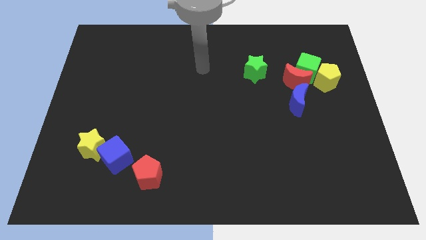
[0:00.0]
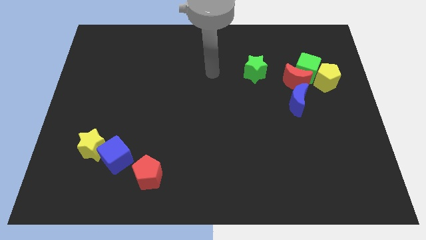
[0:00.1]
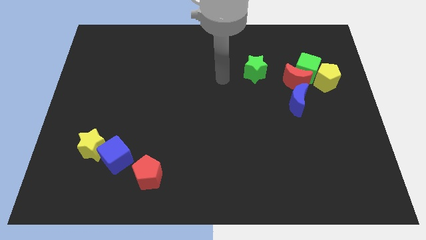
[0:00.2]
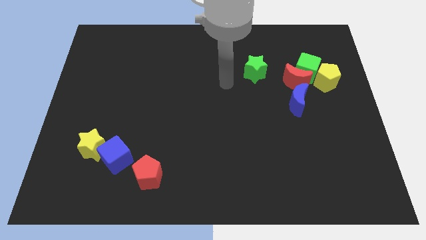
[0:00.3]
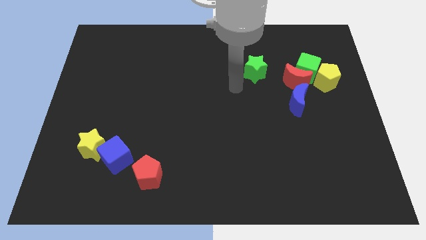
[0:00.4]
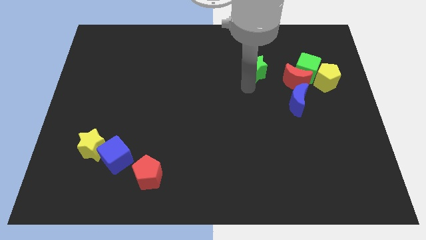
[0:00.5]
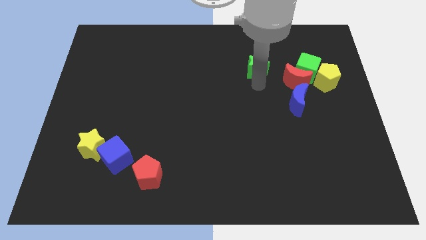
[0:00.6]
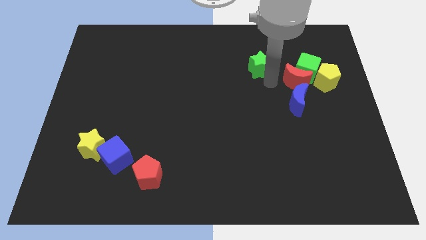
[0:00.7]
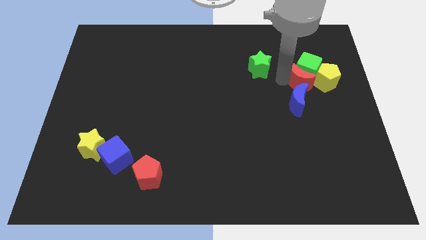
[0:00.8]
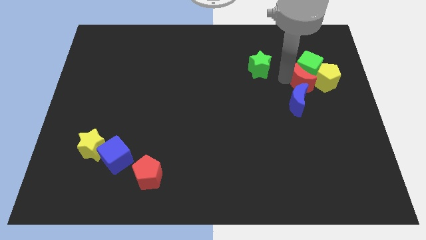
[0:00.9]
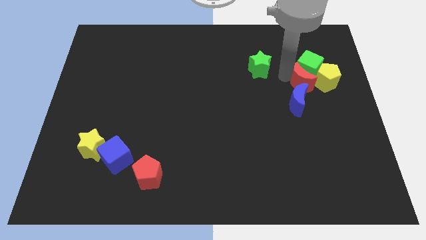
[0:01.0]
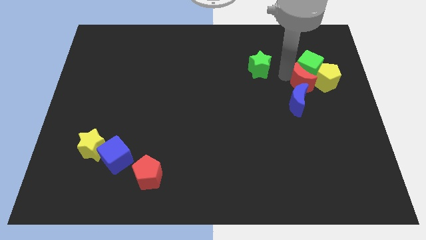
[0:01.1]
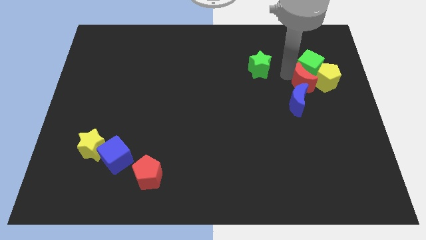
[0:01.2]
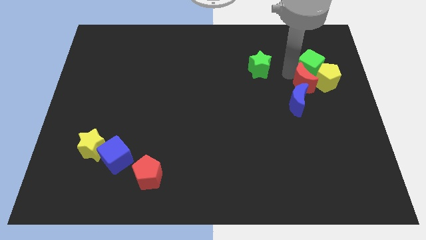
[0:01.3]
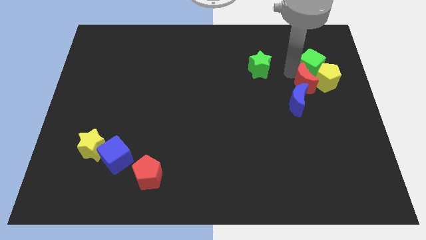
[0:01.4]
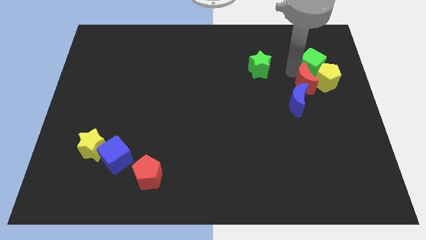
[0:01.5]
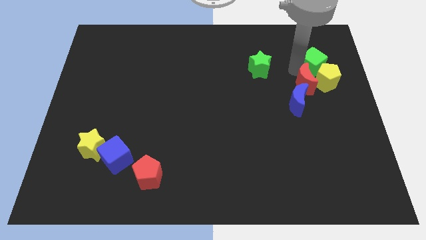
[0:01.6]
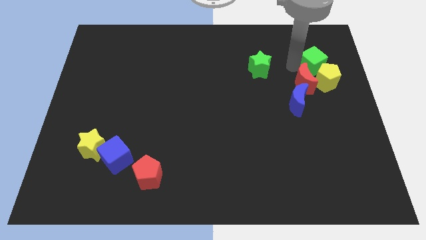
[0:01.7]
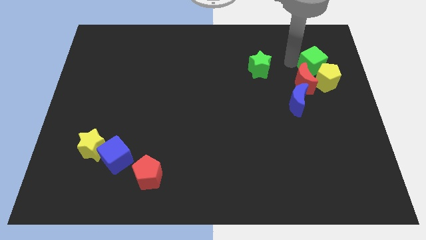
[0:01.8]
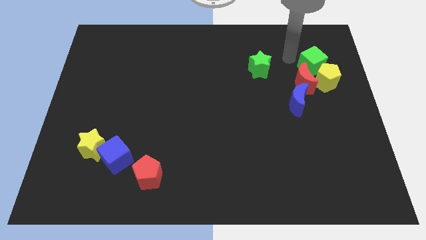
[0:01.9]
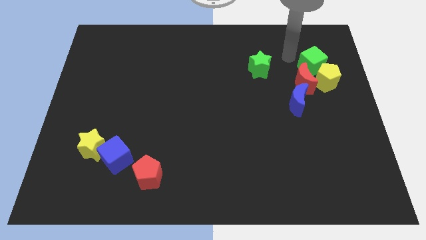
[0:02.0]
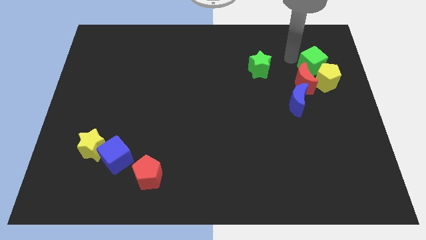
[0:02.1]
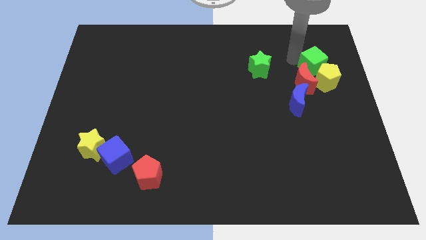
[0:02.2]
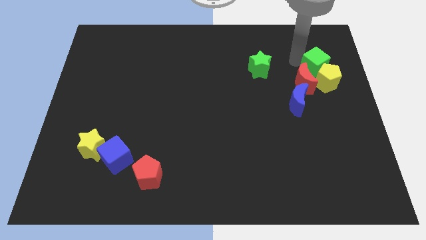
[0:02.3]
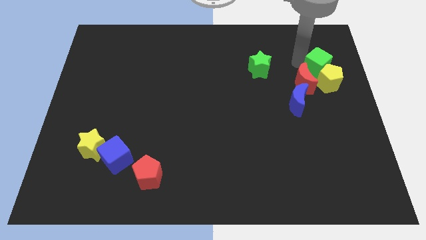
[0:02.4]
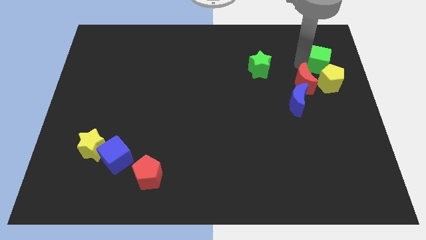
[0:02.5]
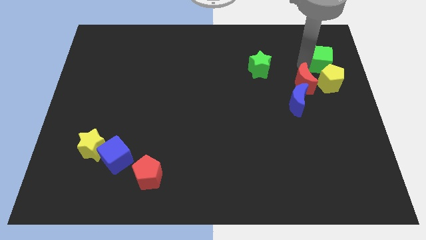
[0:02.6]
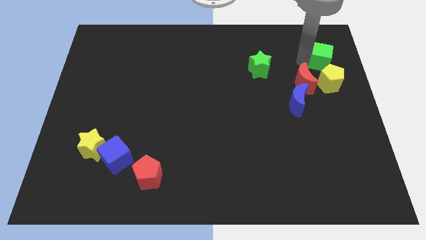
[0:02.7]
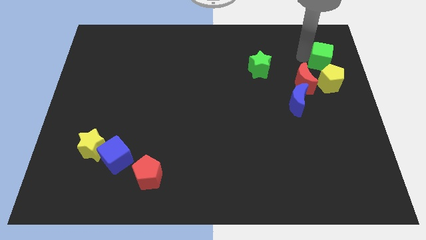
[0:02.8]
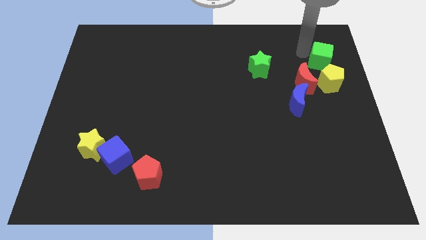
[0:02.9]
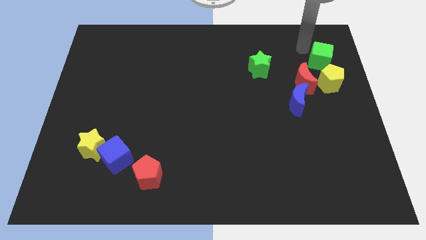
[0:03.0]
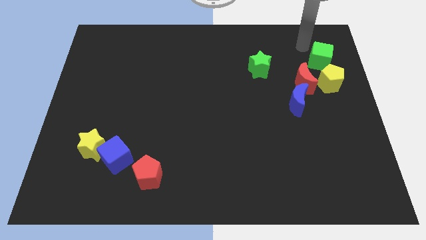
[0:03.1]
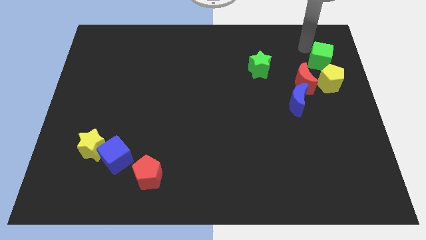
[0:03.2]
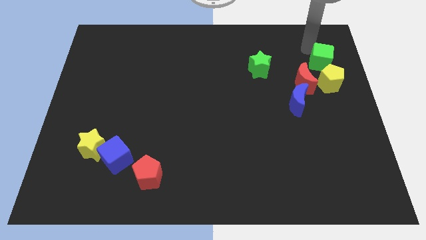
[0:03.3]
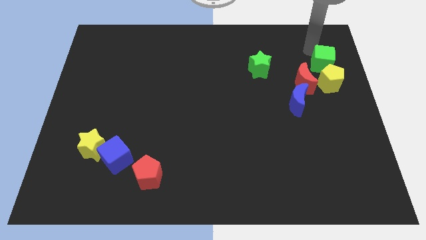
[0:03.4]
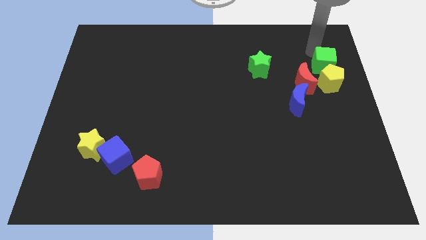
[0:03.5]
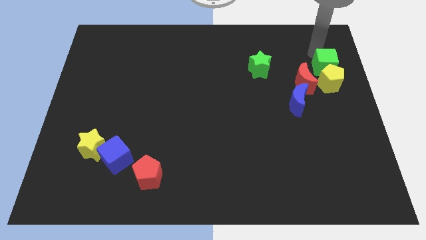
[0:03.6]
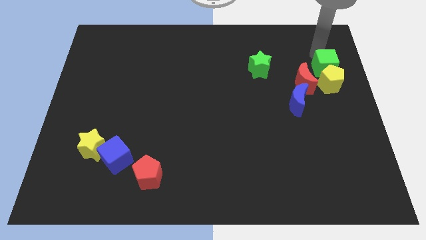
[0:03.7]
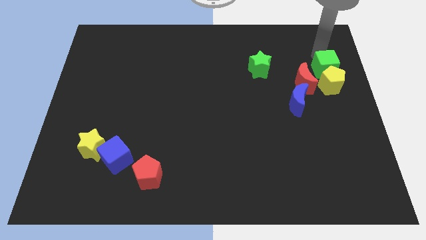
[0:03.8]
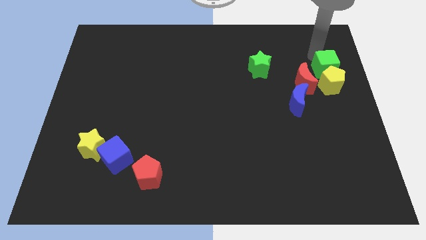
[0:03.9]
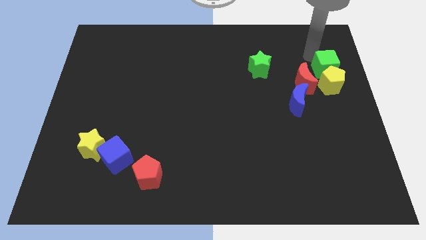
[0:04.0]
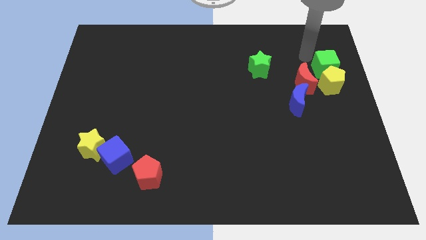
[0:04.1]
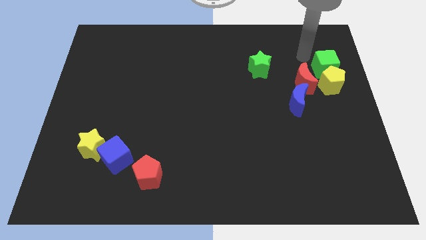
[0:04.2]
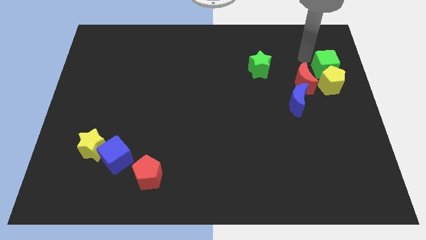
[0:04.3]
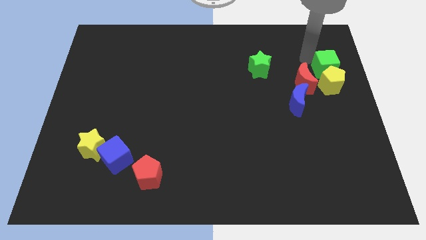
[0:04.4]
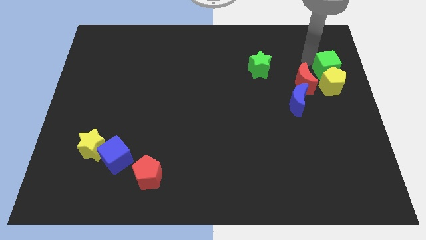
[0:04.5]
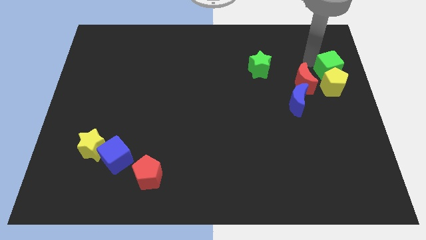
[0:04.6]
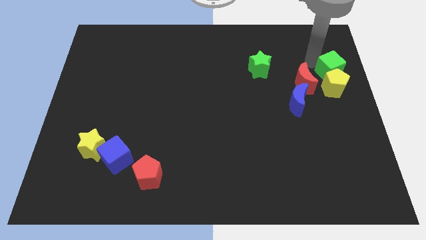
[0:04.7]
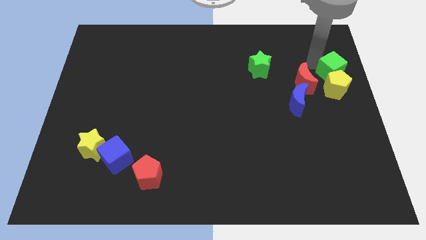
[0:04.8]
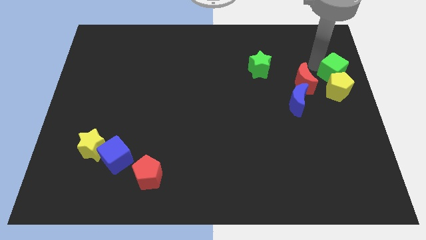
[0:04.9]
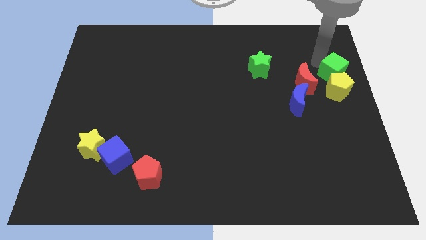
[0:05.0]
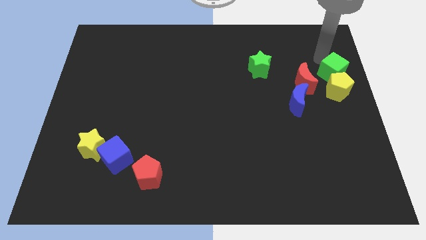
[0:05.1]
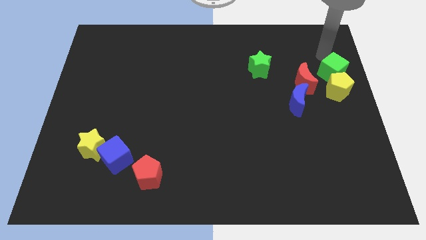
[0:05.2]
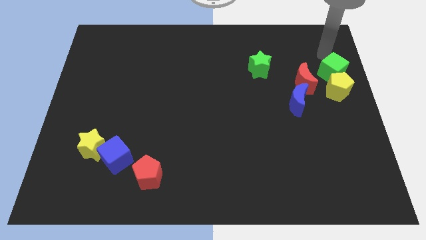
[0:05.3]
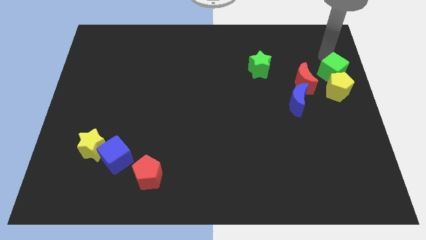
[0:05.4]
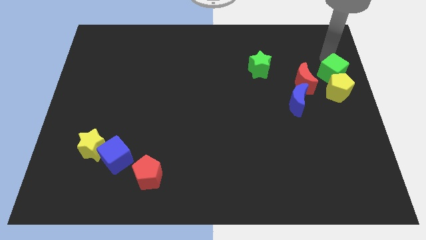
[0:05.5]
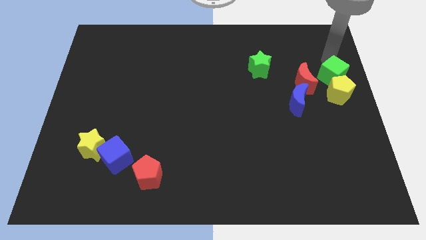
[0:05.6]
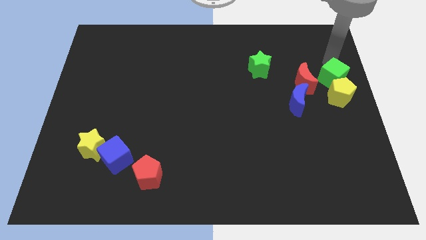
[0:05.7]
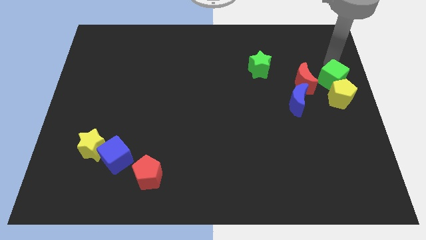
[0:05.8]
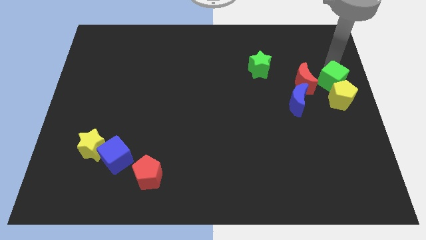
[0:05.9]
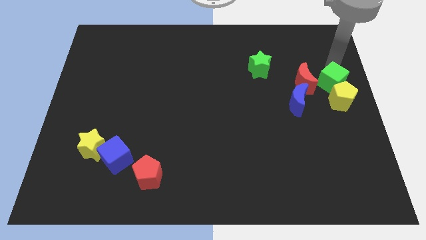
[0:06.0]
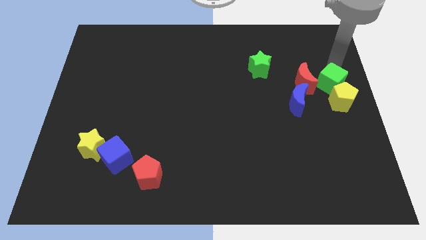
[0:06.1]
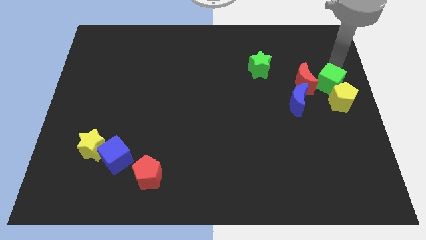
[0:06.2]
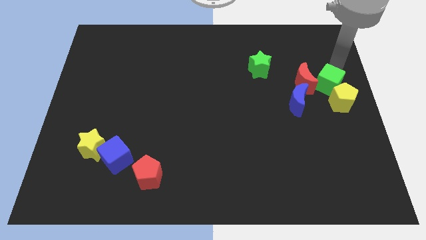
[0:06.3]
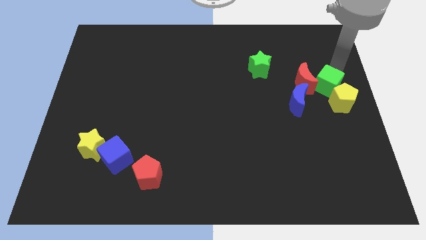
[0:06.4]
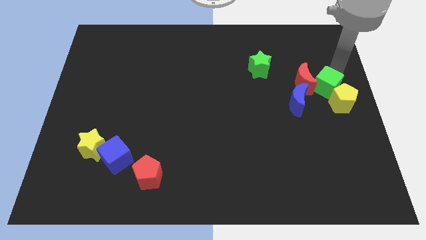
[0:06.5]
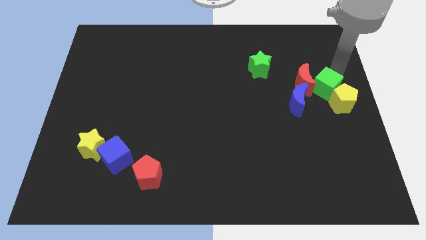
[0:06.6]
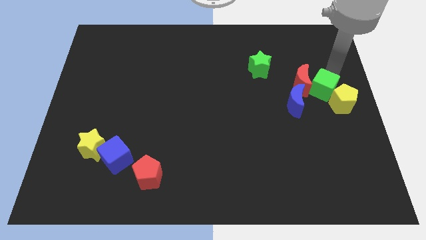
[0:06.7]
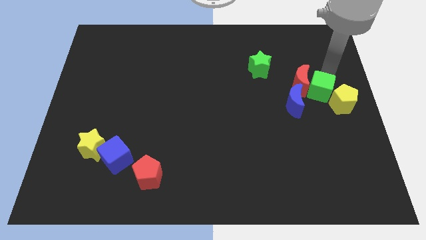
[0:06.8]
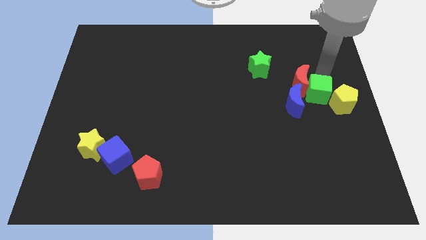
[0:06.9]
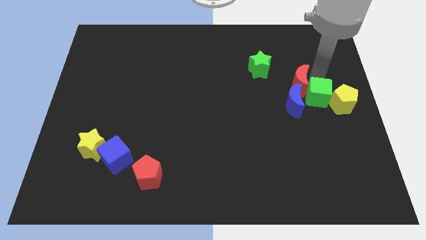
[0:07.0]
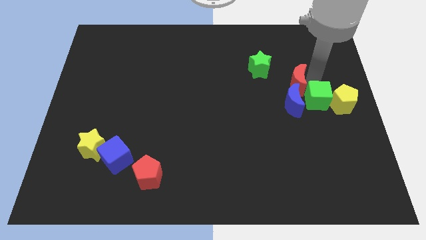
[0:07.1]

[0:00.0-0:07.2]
put the green cube to the blue moon

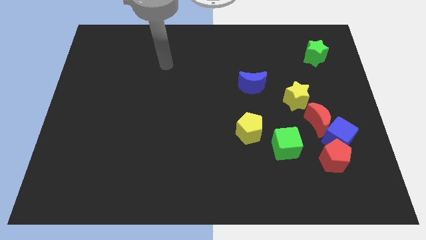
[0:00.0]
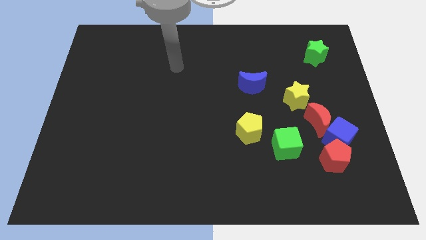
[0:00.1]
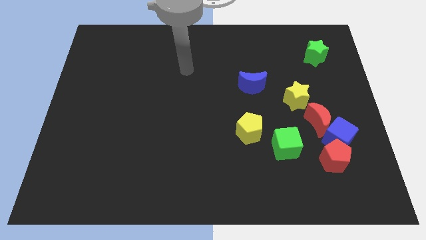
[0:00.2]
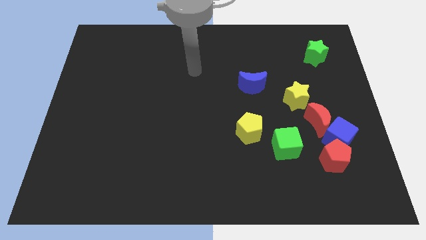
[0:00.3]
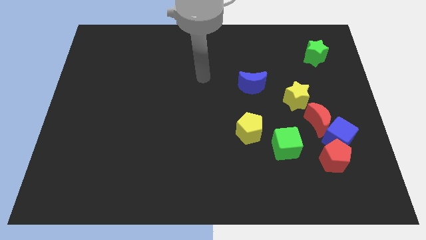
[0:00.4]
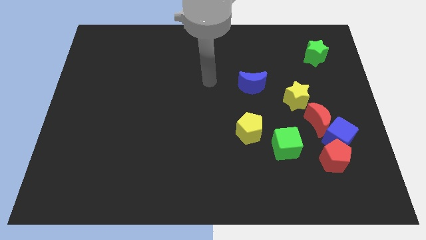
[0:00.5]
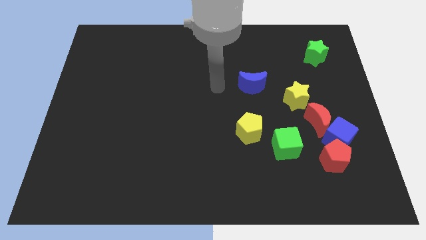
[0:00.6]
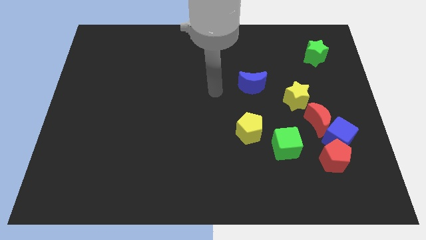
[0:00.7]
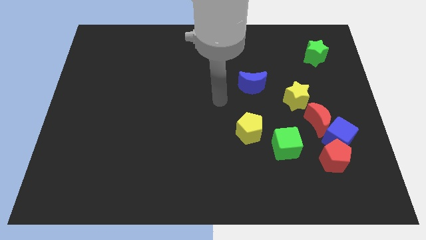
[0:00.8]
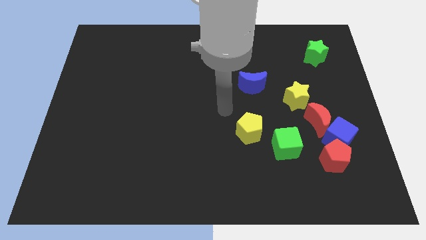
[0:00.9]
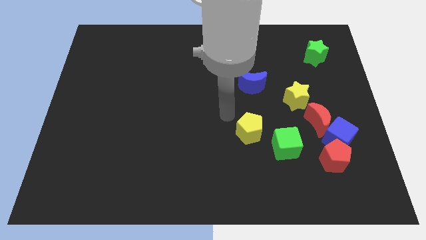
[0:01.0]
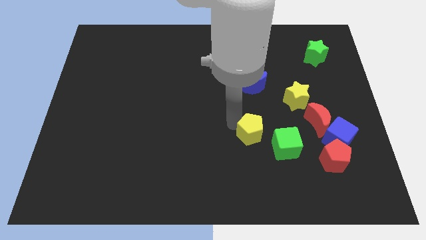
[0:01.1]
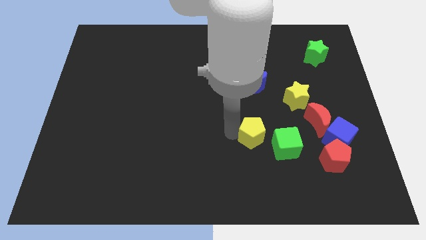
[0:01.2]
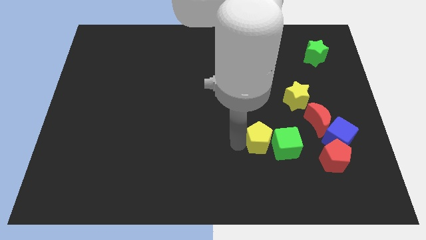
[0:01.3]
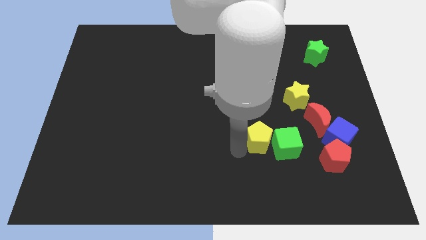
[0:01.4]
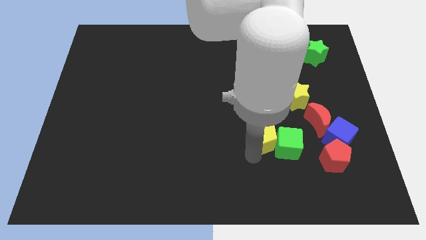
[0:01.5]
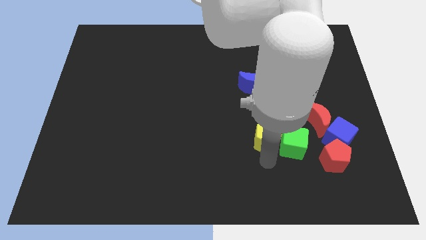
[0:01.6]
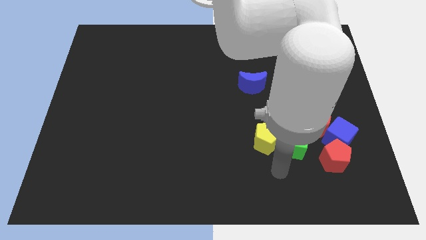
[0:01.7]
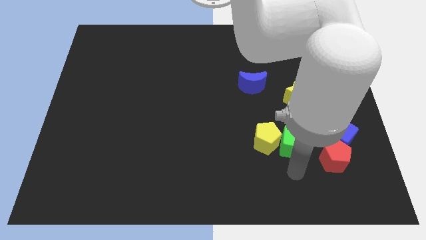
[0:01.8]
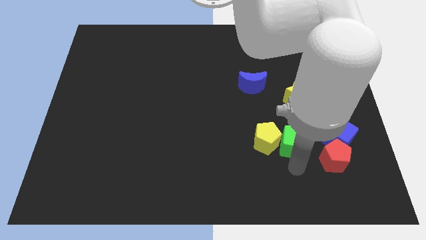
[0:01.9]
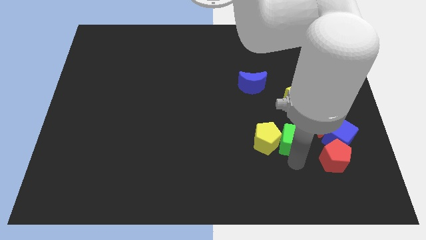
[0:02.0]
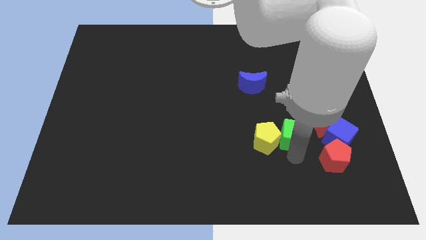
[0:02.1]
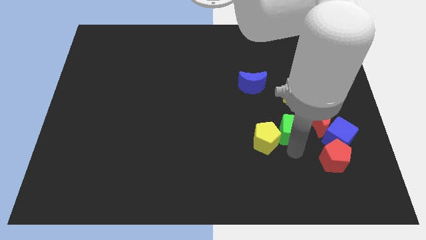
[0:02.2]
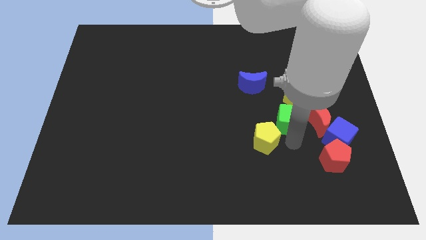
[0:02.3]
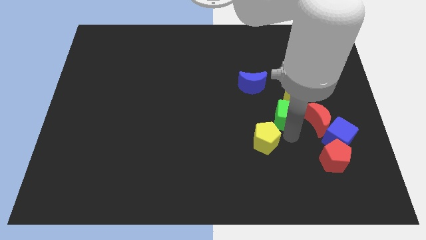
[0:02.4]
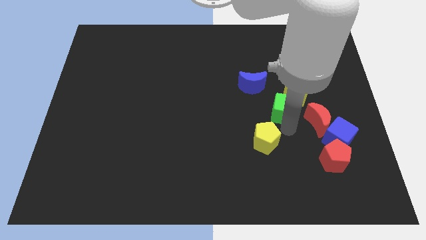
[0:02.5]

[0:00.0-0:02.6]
move the green cube close to the yellow star
